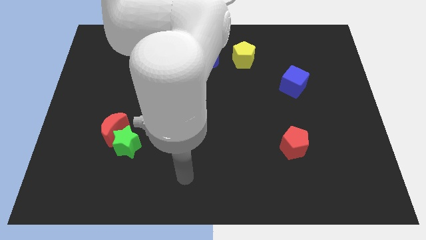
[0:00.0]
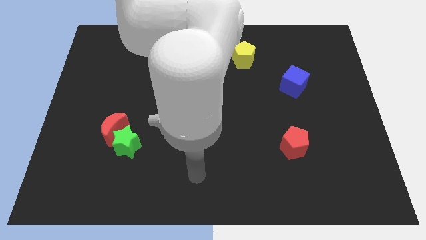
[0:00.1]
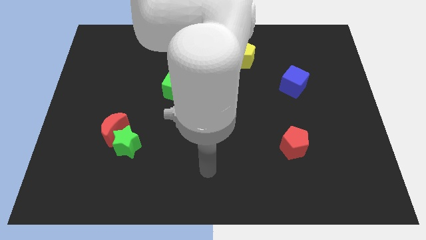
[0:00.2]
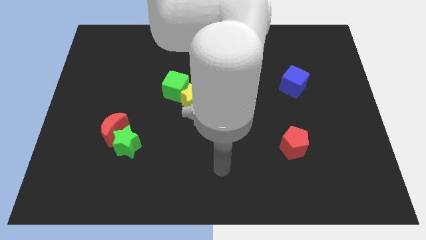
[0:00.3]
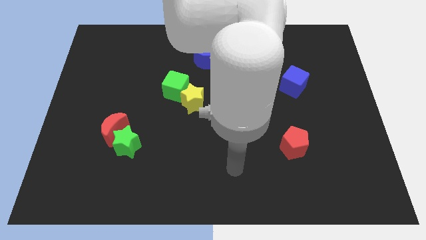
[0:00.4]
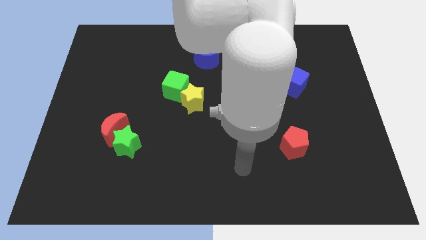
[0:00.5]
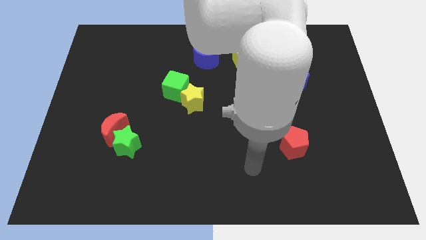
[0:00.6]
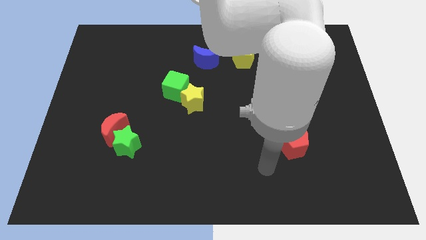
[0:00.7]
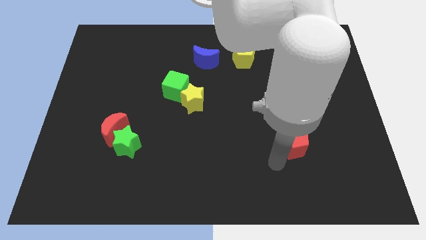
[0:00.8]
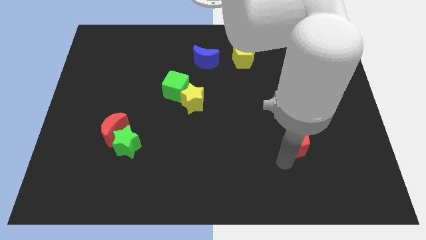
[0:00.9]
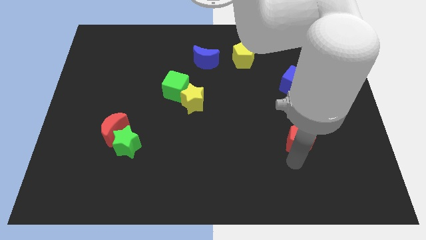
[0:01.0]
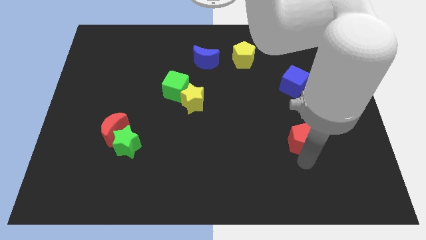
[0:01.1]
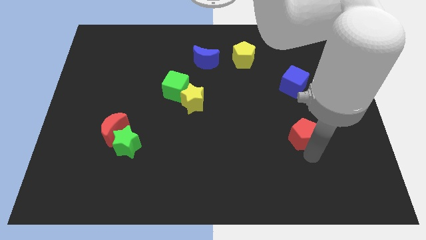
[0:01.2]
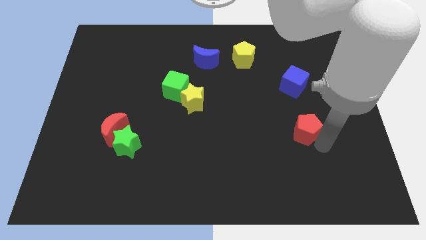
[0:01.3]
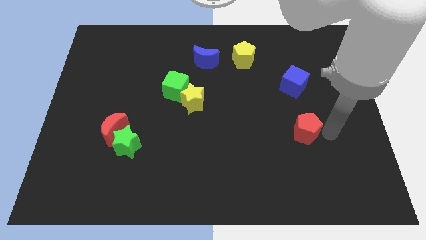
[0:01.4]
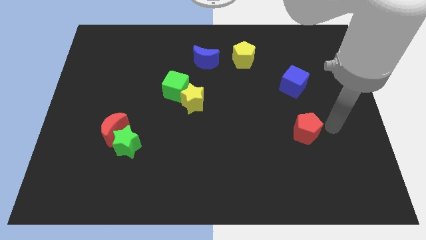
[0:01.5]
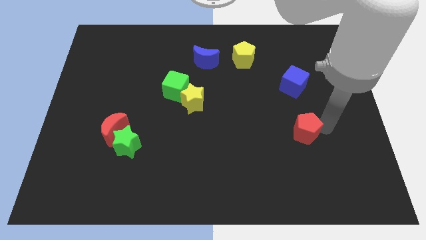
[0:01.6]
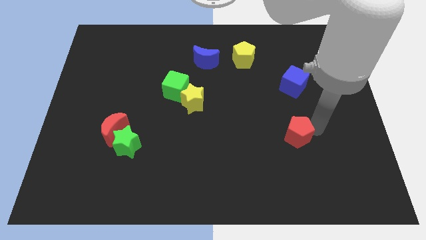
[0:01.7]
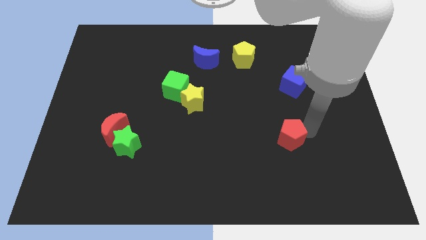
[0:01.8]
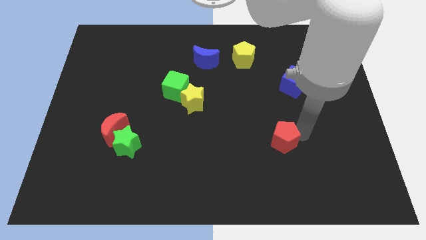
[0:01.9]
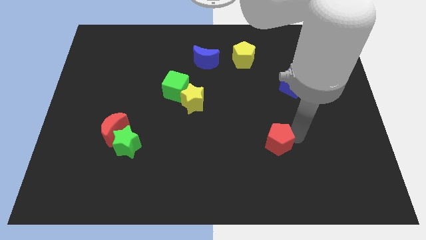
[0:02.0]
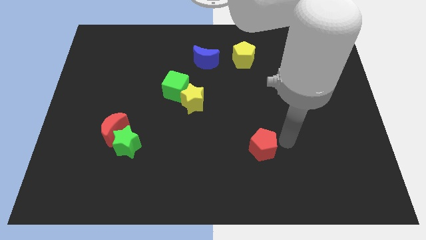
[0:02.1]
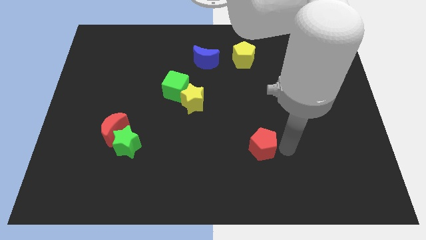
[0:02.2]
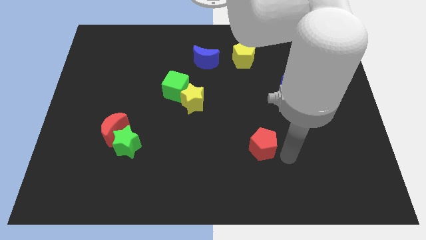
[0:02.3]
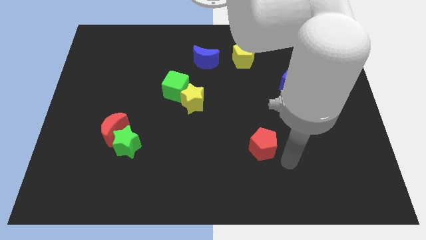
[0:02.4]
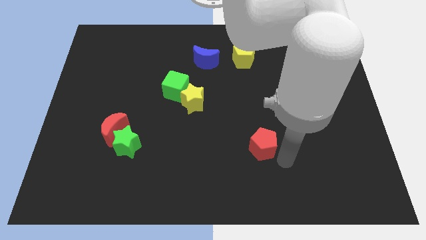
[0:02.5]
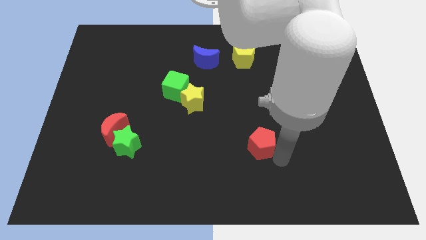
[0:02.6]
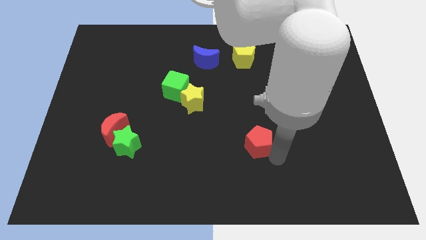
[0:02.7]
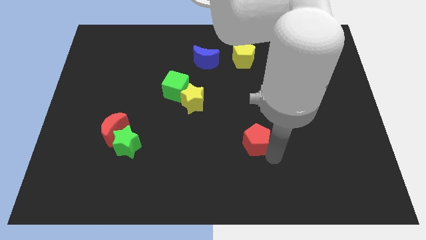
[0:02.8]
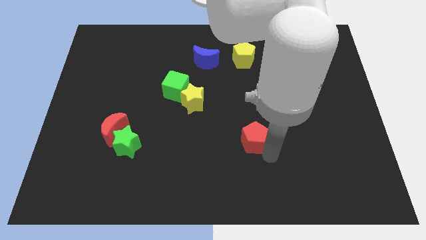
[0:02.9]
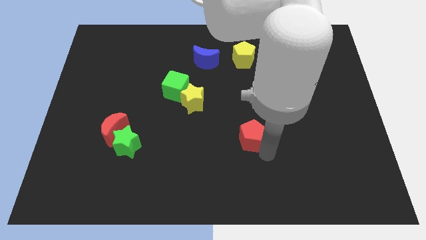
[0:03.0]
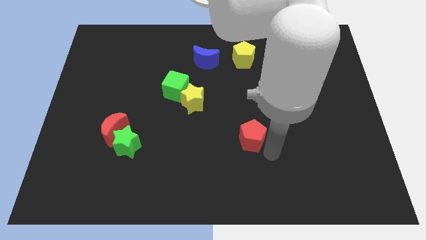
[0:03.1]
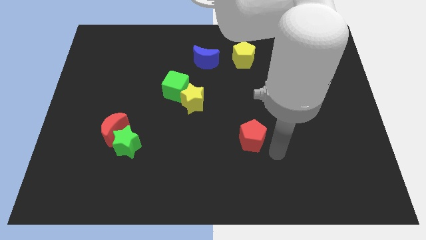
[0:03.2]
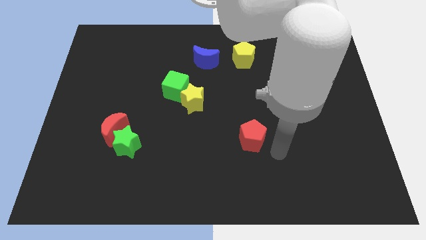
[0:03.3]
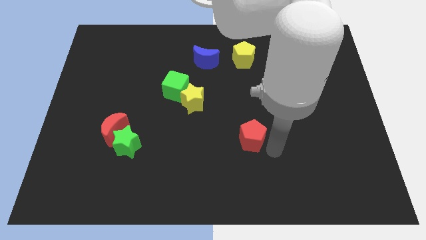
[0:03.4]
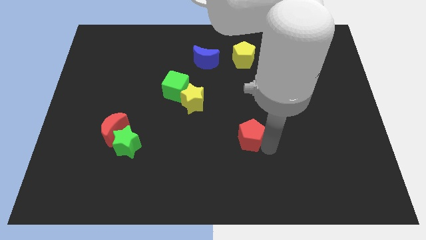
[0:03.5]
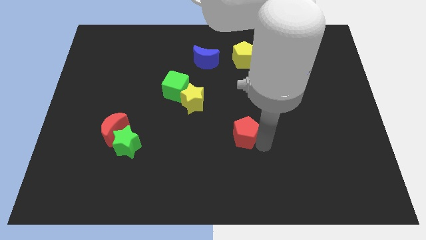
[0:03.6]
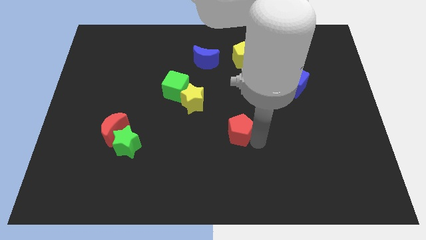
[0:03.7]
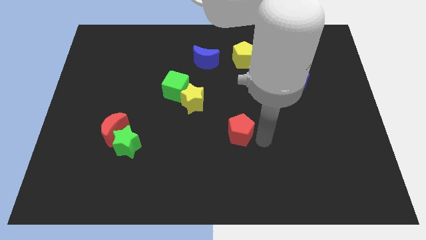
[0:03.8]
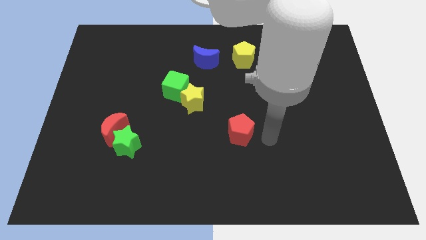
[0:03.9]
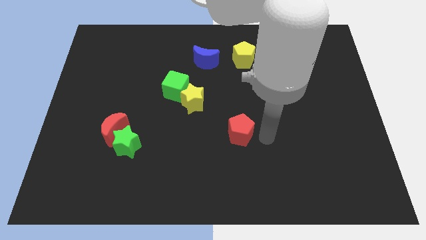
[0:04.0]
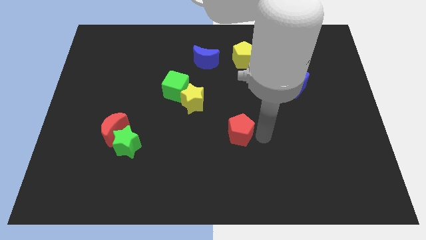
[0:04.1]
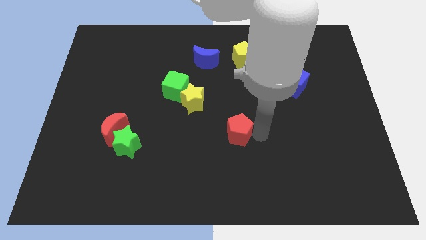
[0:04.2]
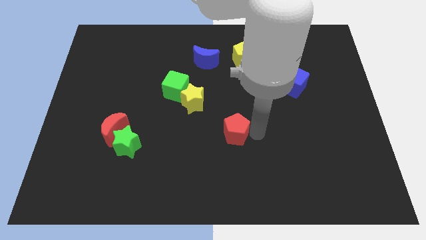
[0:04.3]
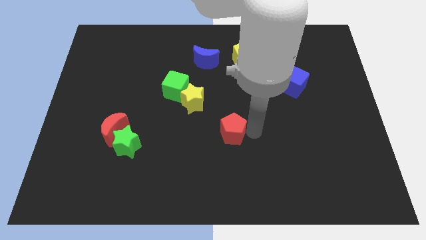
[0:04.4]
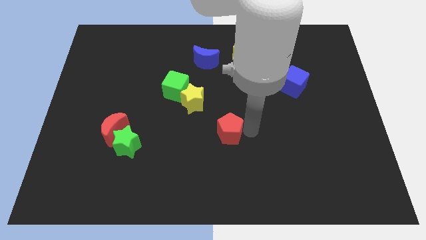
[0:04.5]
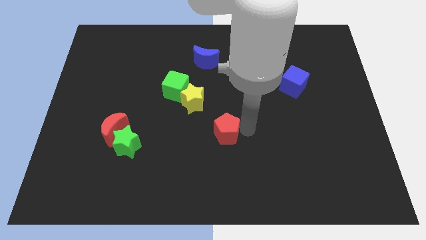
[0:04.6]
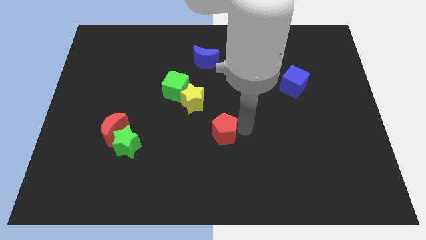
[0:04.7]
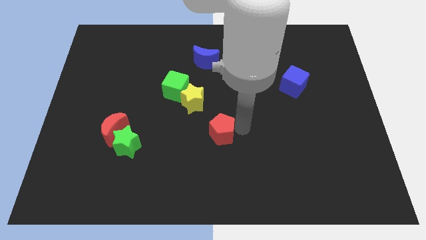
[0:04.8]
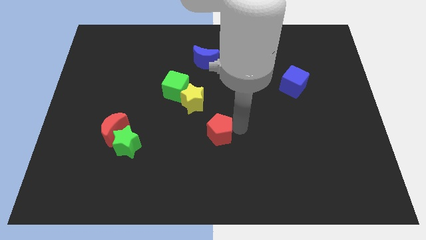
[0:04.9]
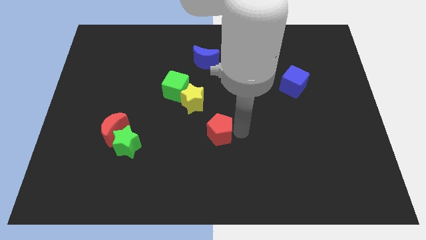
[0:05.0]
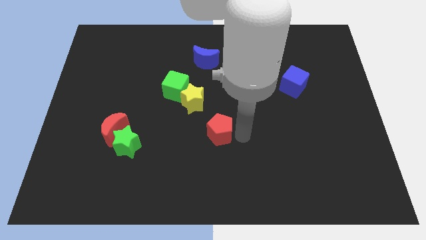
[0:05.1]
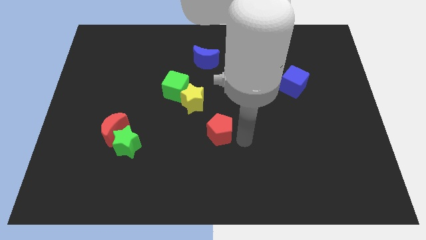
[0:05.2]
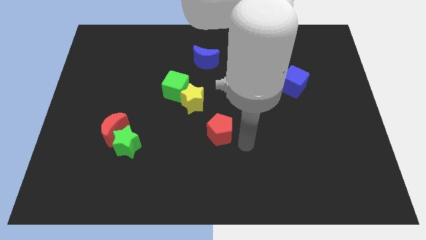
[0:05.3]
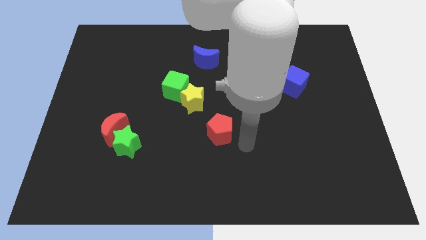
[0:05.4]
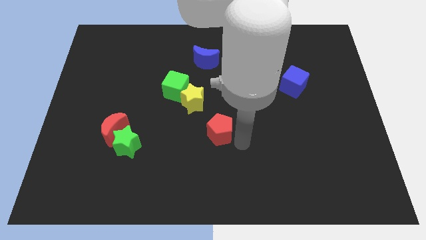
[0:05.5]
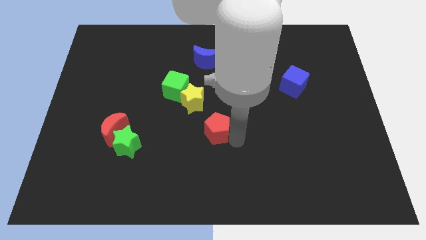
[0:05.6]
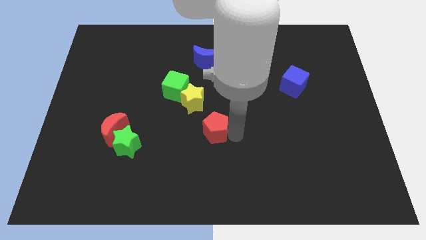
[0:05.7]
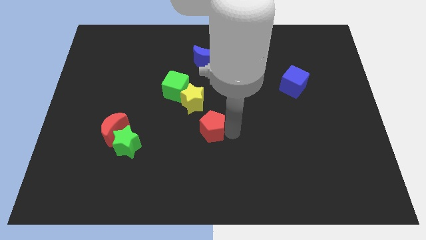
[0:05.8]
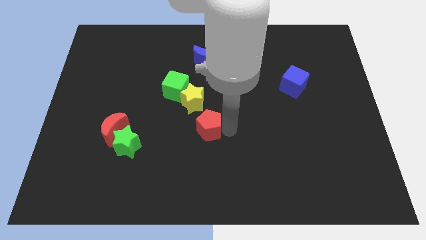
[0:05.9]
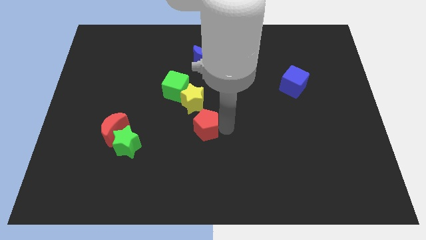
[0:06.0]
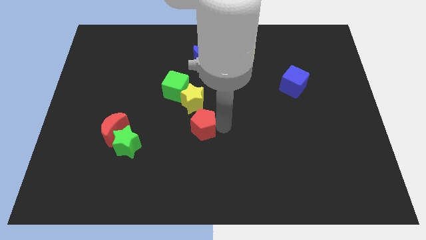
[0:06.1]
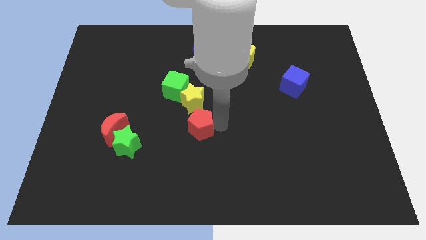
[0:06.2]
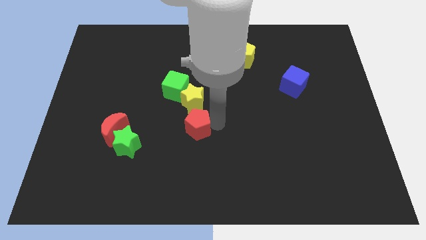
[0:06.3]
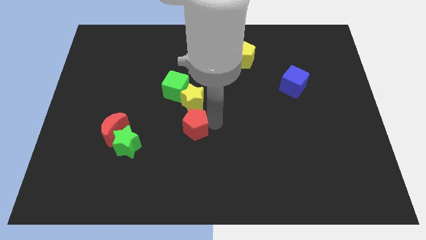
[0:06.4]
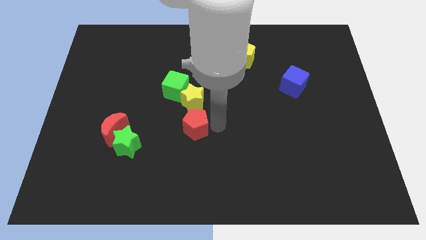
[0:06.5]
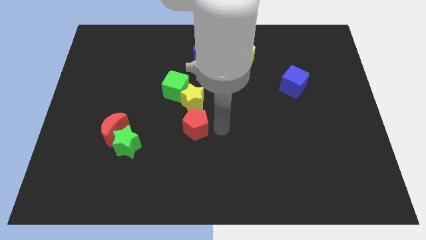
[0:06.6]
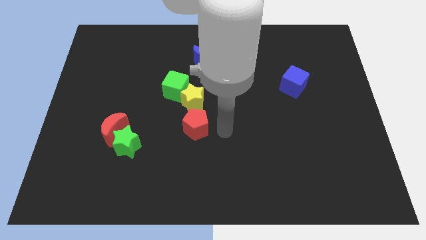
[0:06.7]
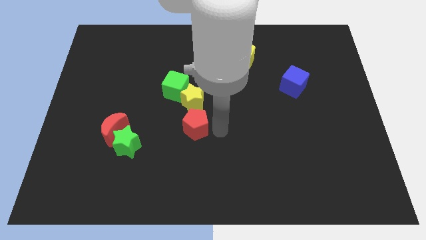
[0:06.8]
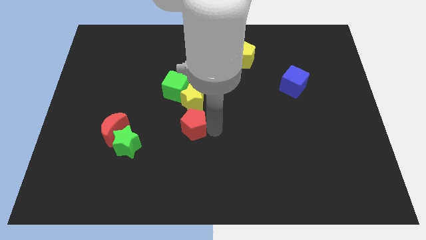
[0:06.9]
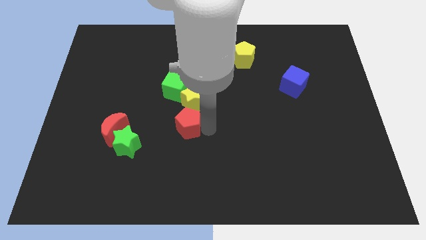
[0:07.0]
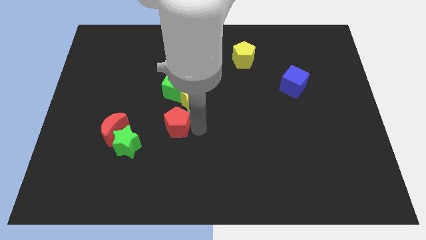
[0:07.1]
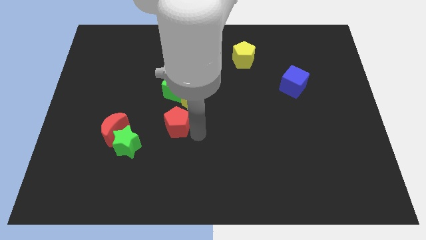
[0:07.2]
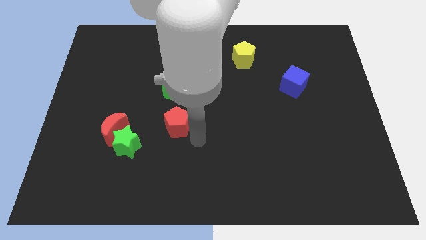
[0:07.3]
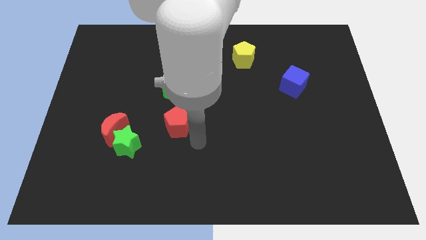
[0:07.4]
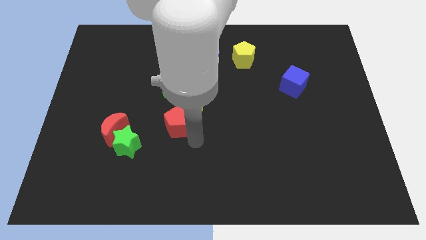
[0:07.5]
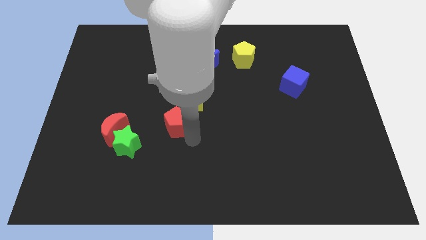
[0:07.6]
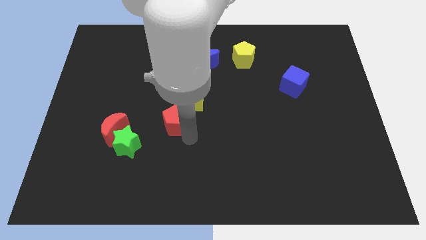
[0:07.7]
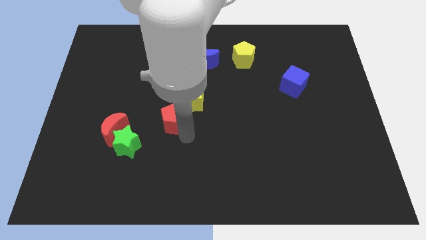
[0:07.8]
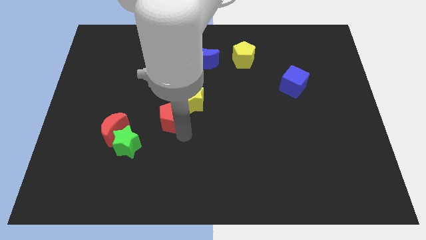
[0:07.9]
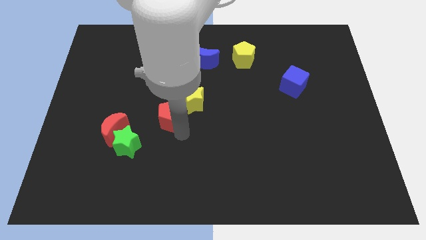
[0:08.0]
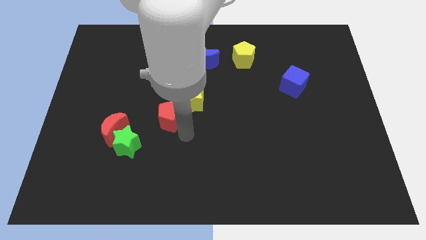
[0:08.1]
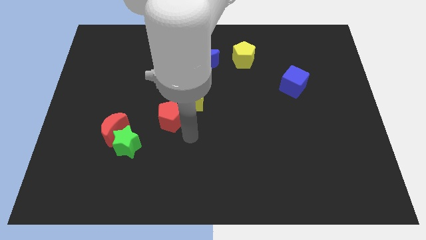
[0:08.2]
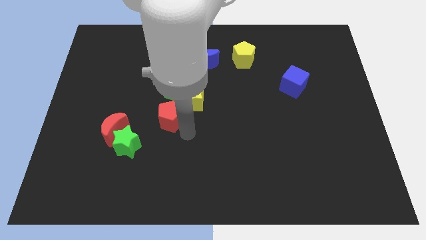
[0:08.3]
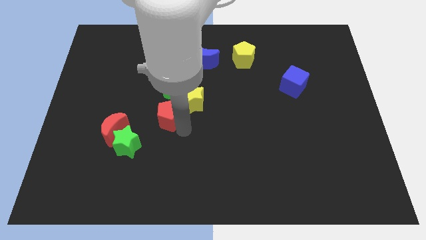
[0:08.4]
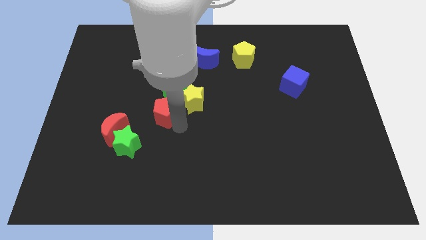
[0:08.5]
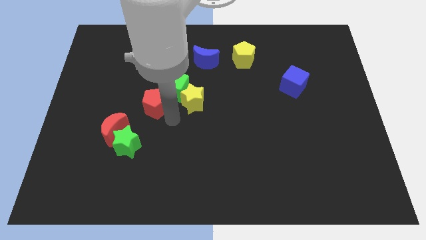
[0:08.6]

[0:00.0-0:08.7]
put the red pentagon to the left side of the green cube
